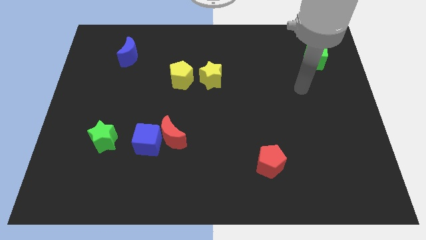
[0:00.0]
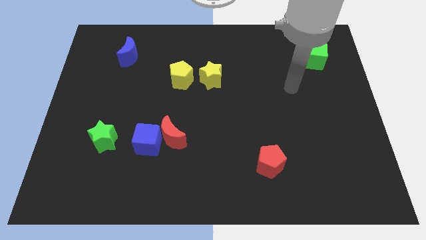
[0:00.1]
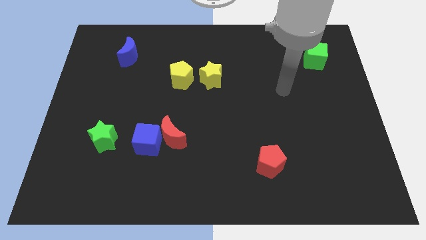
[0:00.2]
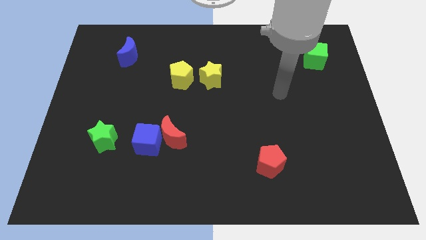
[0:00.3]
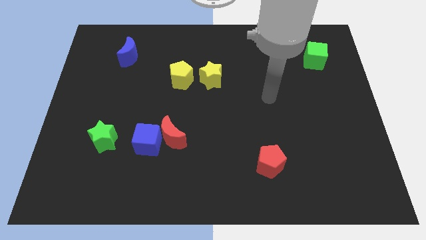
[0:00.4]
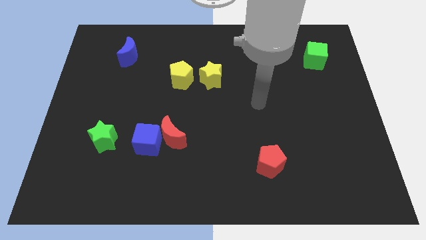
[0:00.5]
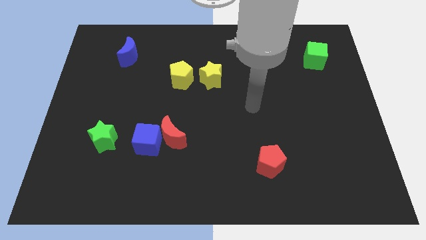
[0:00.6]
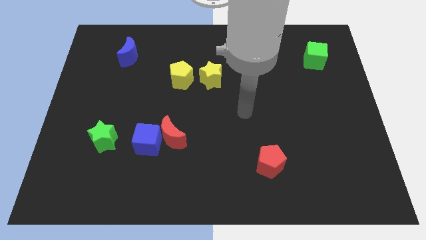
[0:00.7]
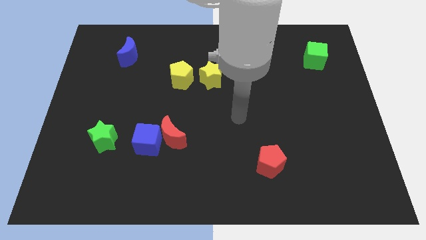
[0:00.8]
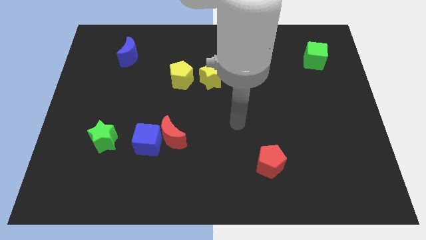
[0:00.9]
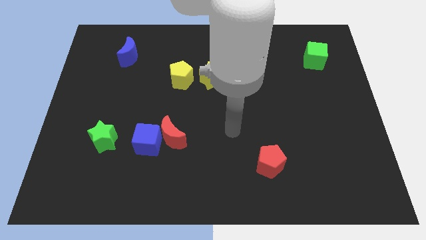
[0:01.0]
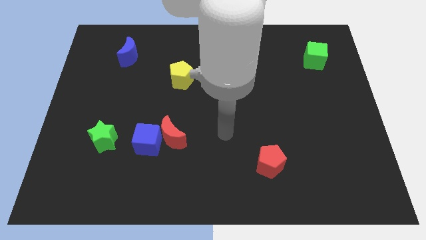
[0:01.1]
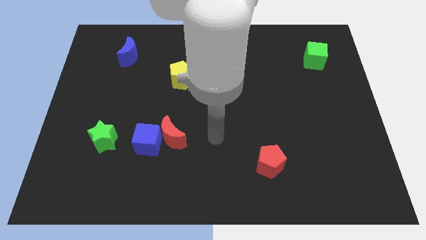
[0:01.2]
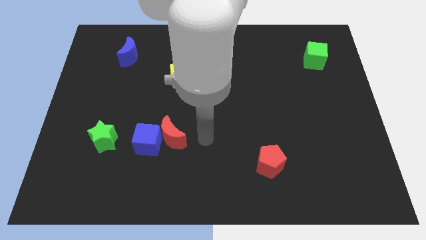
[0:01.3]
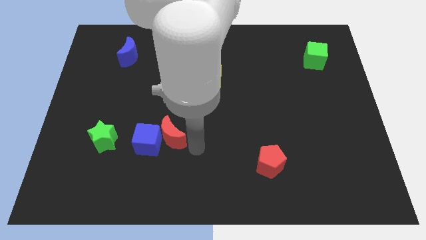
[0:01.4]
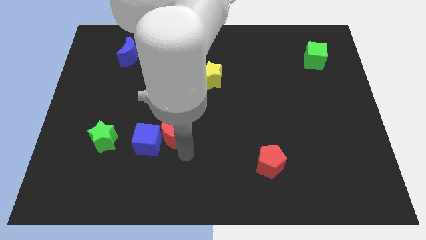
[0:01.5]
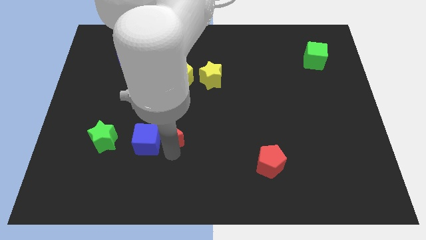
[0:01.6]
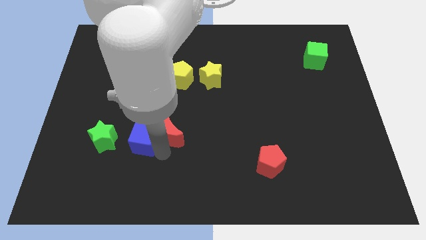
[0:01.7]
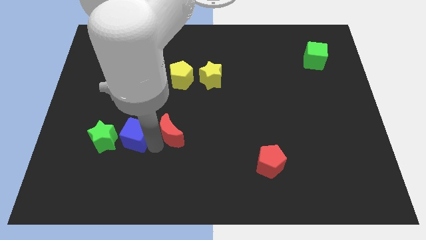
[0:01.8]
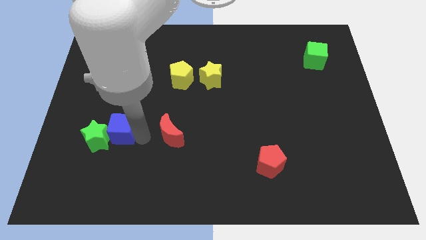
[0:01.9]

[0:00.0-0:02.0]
separate the red moon from the blue cube

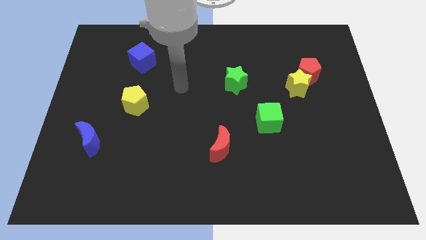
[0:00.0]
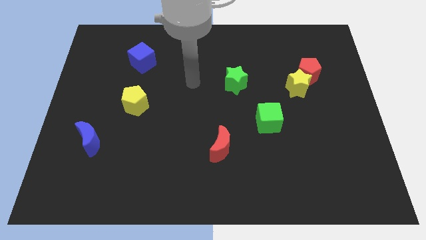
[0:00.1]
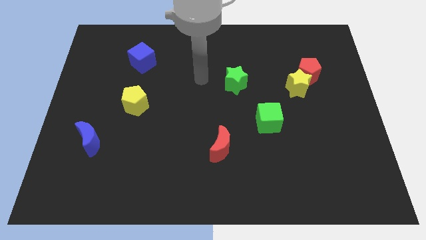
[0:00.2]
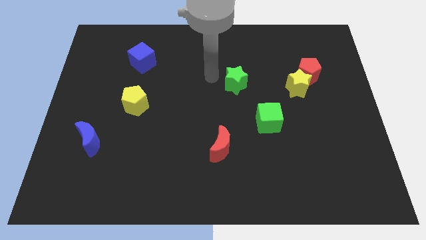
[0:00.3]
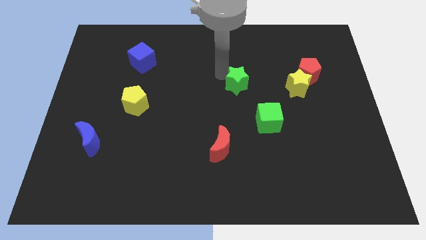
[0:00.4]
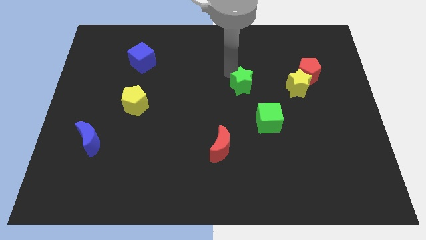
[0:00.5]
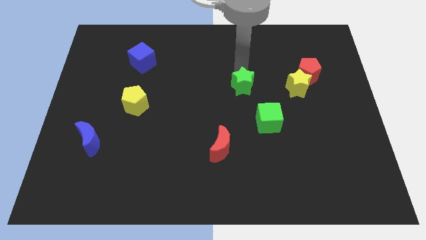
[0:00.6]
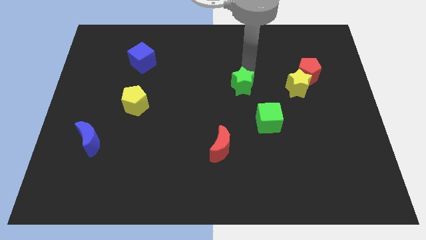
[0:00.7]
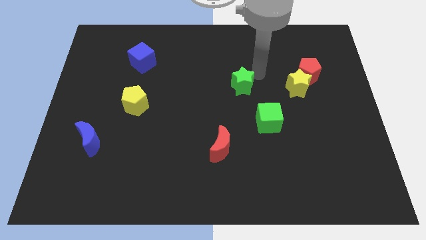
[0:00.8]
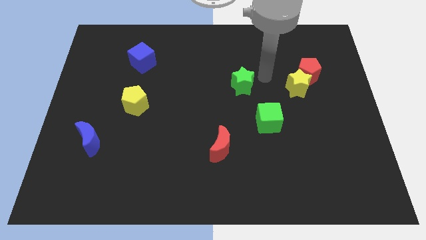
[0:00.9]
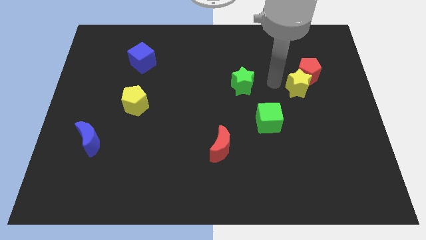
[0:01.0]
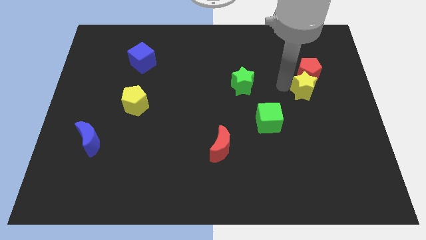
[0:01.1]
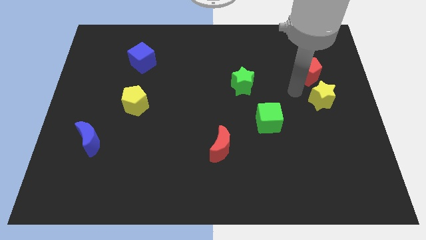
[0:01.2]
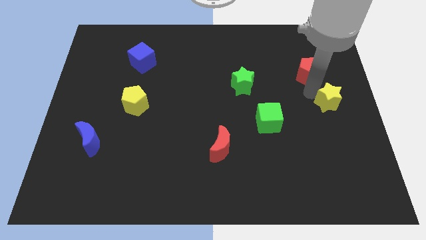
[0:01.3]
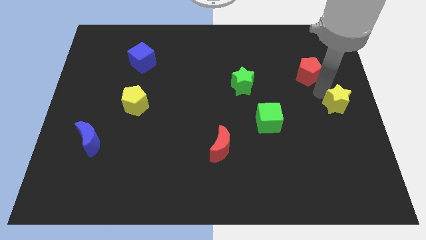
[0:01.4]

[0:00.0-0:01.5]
pull the red pentagon apart from the yellow star

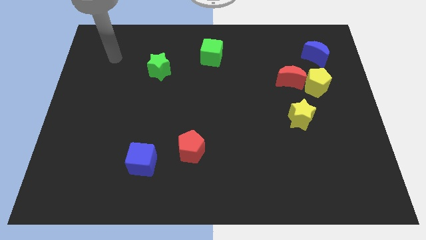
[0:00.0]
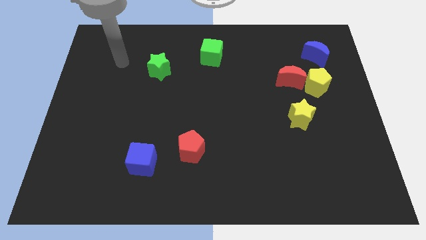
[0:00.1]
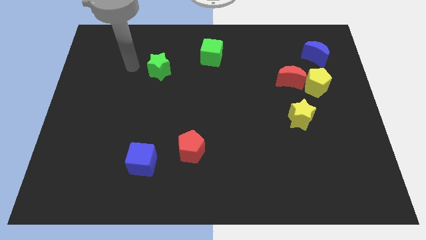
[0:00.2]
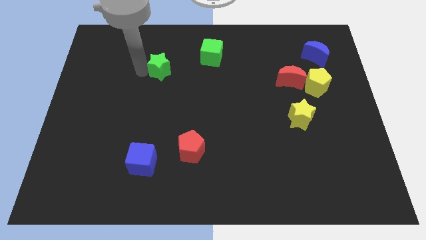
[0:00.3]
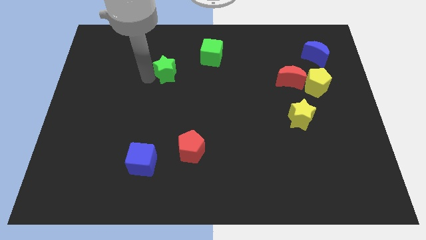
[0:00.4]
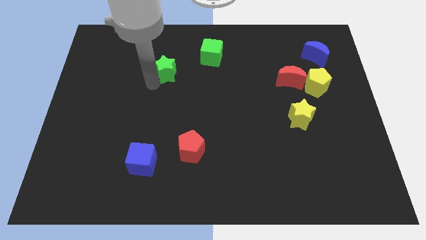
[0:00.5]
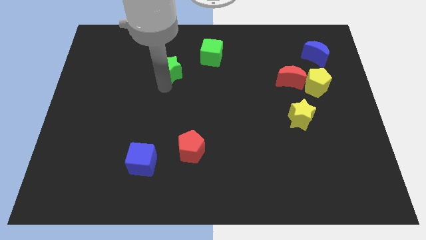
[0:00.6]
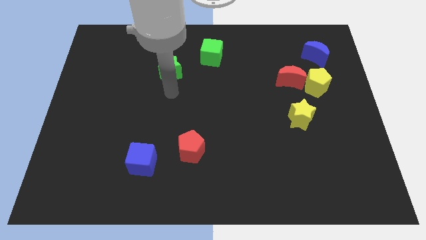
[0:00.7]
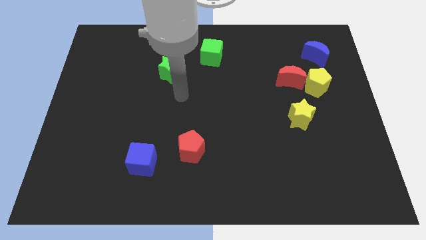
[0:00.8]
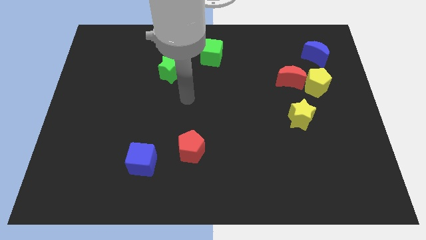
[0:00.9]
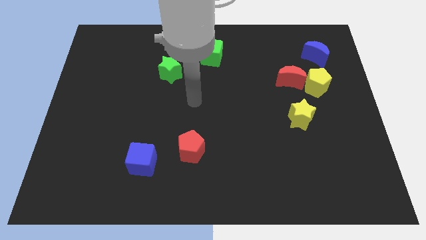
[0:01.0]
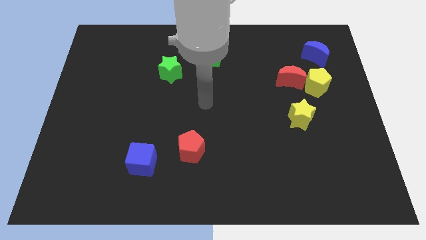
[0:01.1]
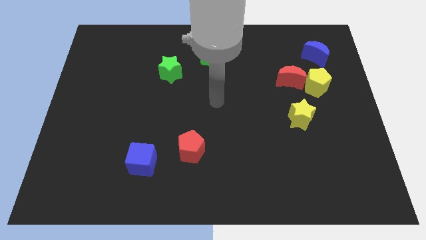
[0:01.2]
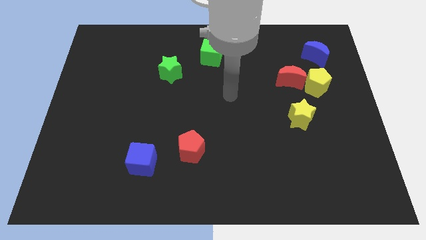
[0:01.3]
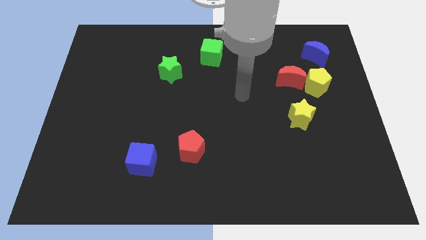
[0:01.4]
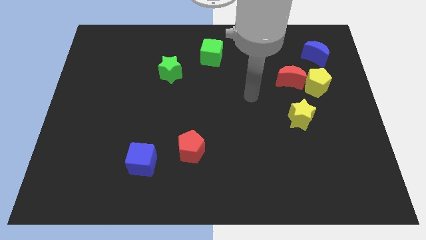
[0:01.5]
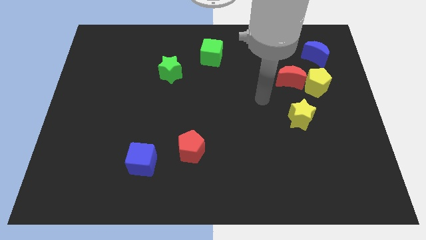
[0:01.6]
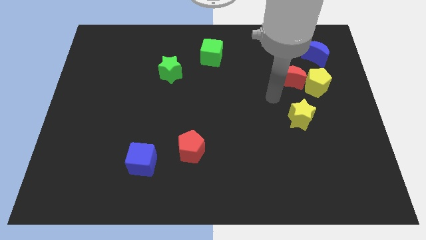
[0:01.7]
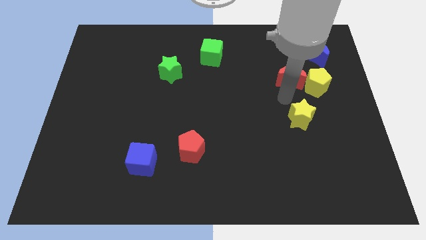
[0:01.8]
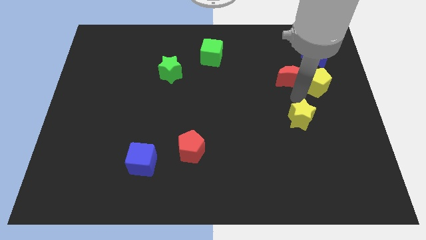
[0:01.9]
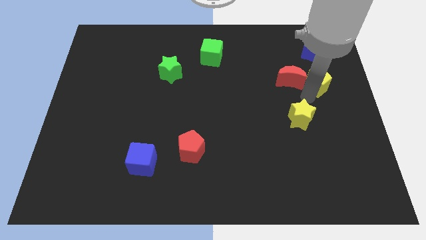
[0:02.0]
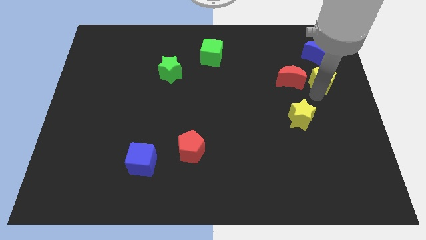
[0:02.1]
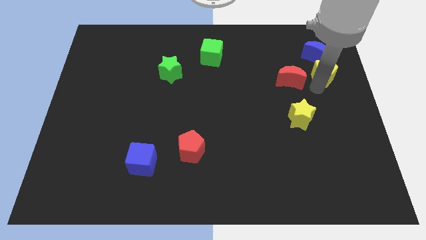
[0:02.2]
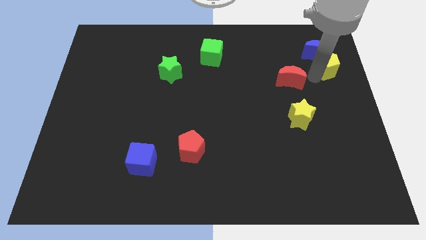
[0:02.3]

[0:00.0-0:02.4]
separate the red moon from the yellow pentagon

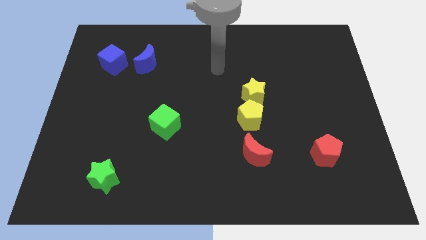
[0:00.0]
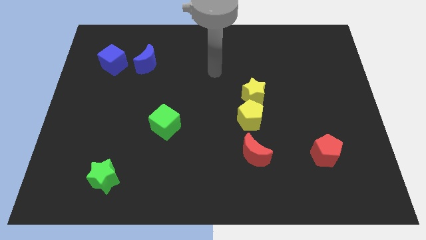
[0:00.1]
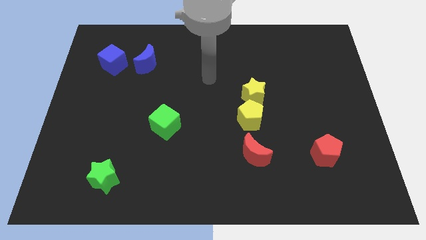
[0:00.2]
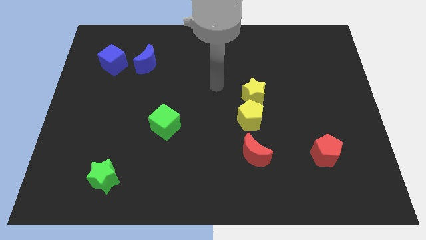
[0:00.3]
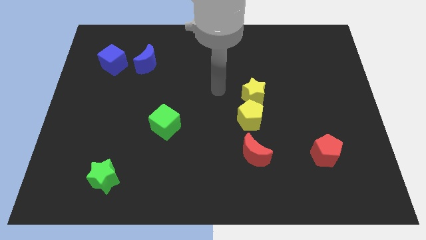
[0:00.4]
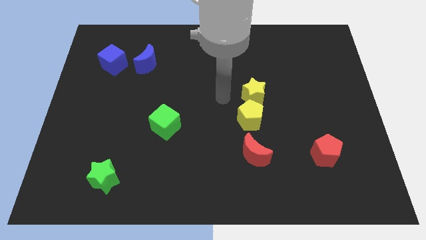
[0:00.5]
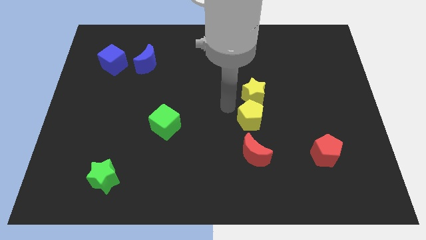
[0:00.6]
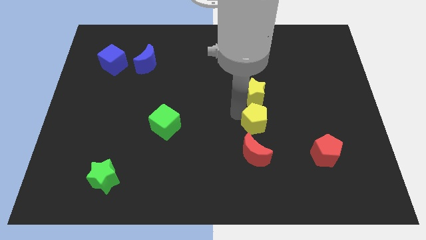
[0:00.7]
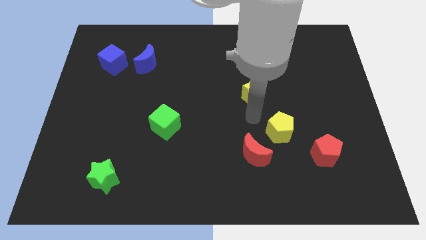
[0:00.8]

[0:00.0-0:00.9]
pull the yellow star apart from the yellow pentagon

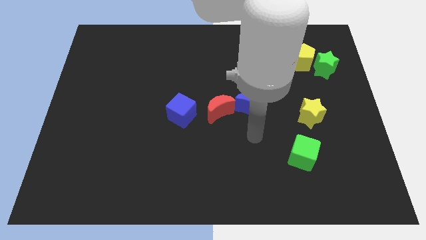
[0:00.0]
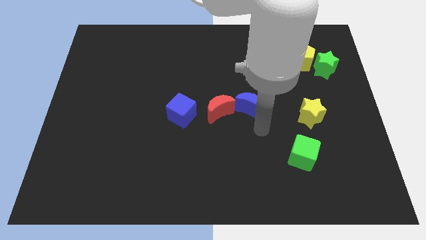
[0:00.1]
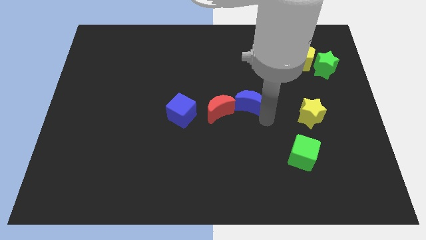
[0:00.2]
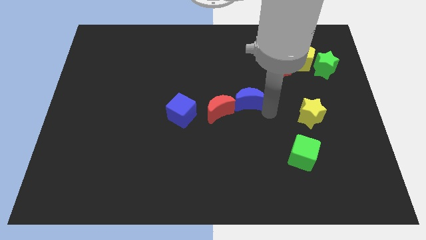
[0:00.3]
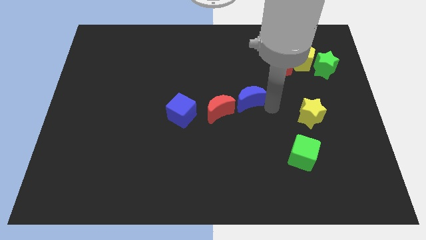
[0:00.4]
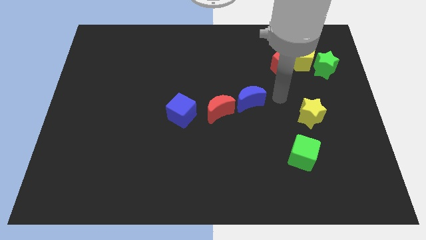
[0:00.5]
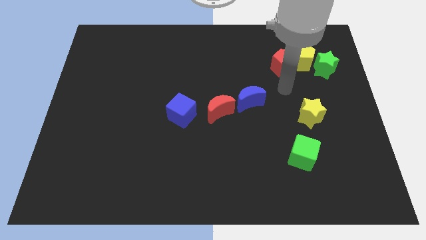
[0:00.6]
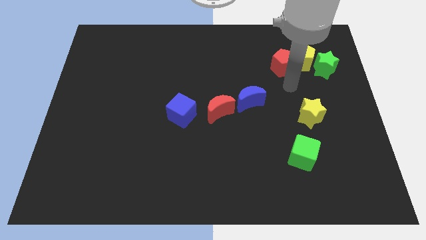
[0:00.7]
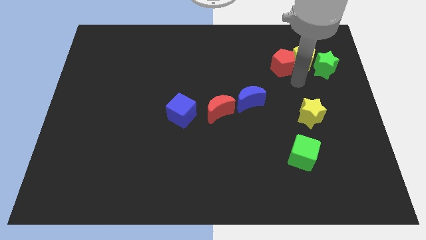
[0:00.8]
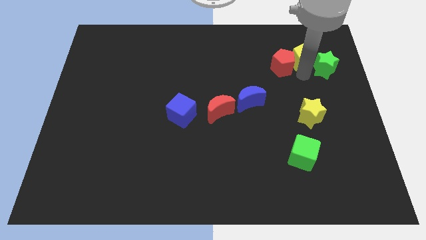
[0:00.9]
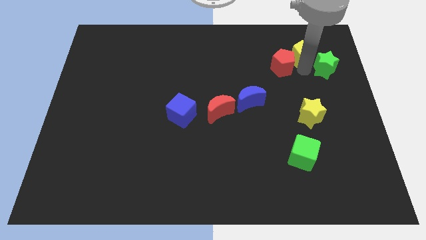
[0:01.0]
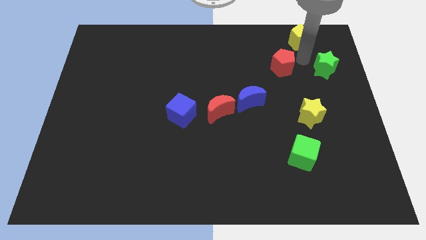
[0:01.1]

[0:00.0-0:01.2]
separate the red pentagon from the yellow pentagon

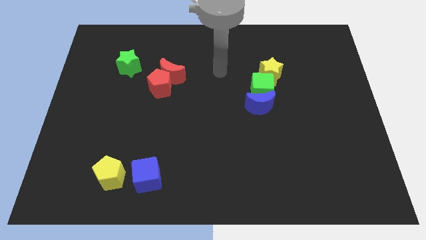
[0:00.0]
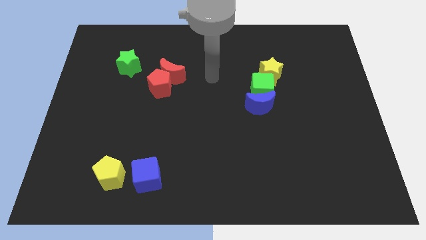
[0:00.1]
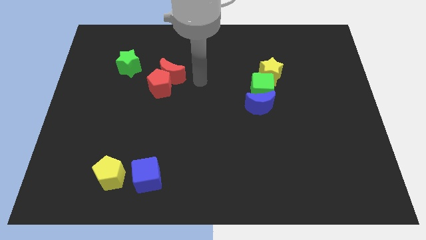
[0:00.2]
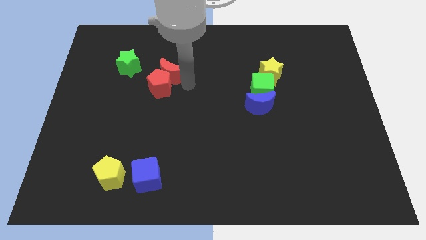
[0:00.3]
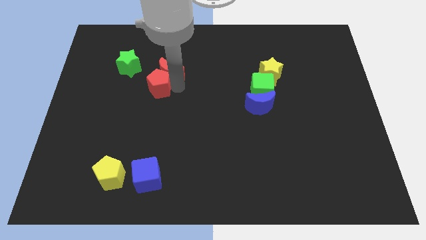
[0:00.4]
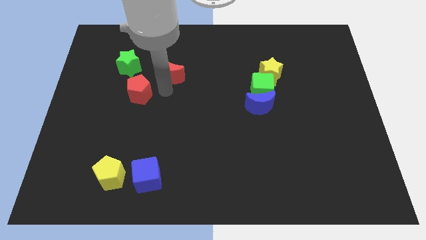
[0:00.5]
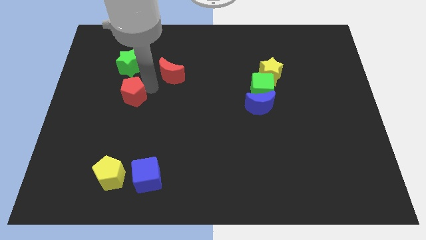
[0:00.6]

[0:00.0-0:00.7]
pull the red moon apart from the red pentagon

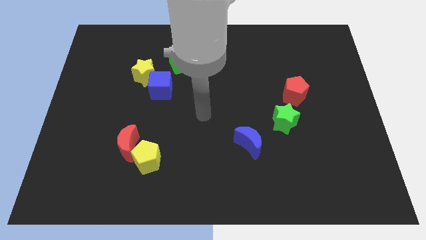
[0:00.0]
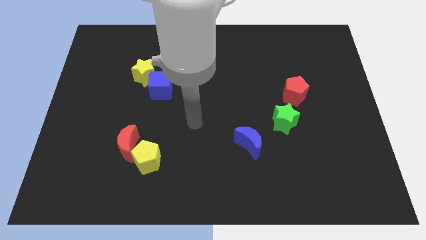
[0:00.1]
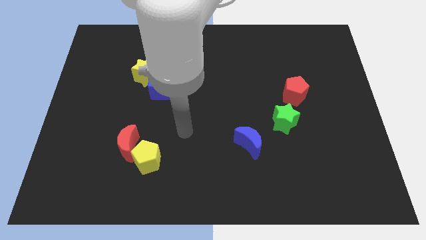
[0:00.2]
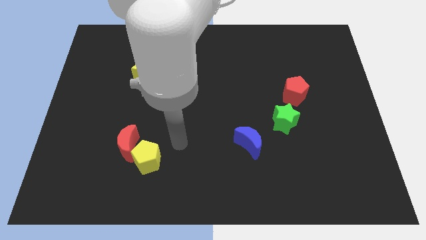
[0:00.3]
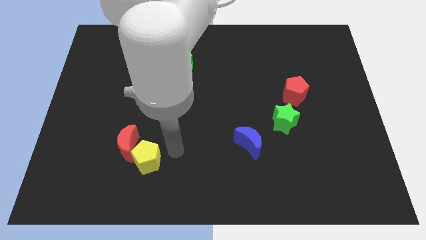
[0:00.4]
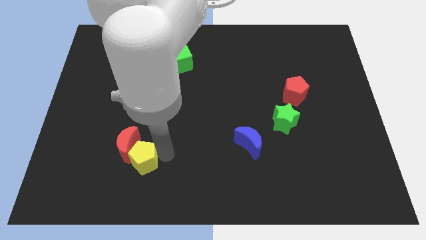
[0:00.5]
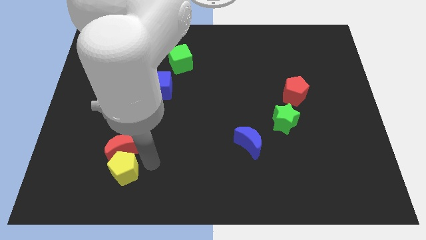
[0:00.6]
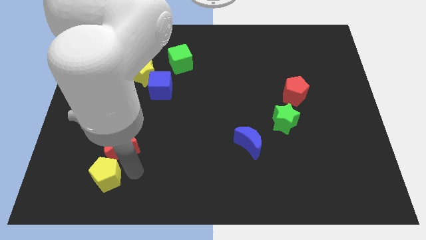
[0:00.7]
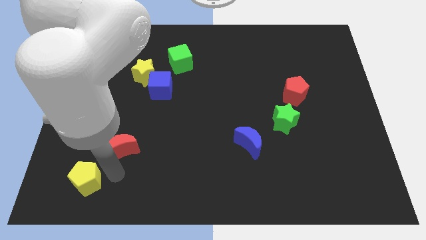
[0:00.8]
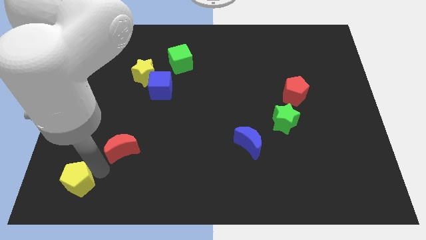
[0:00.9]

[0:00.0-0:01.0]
move the red moon away from the yellow pentagon
